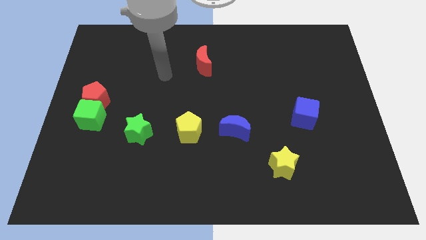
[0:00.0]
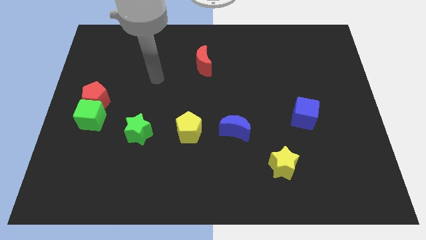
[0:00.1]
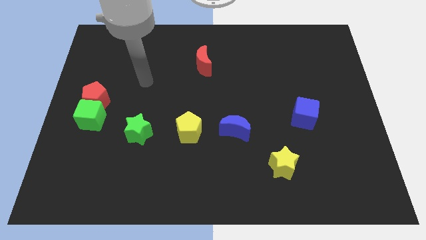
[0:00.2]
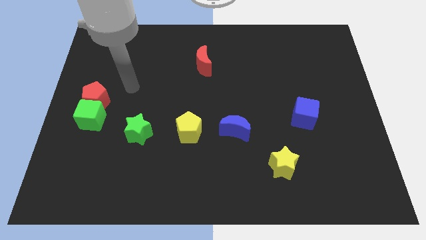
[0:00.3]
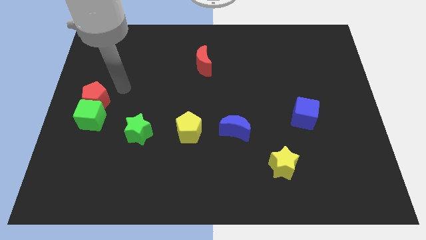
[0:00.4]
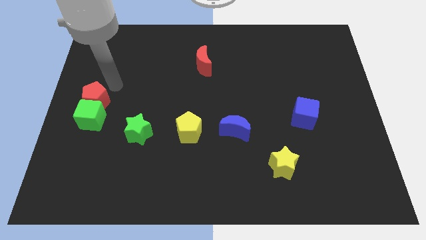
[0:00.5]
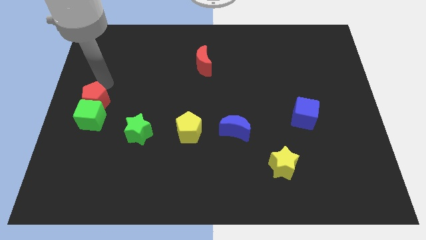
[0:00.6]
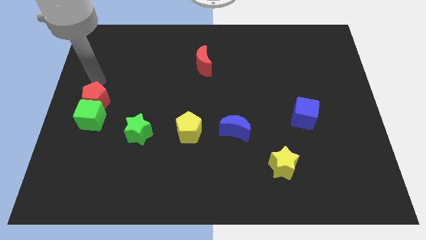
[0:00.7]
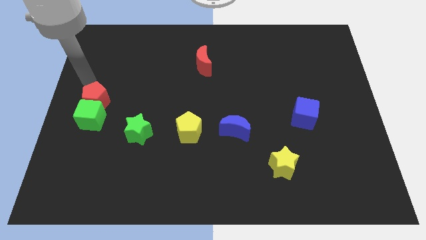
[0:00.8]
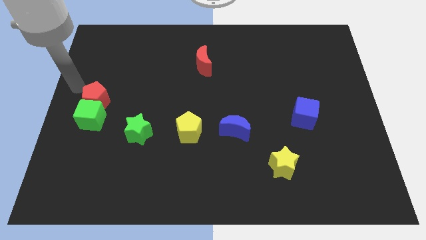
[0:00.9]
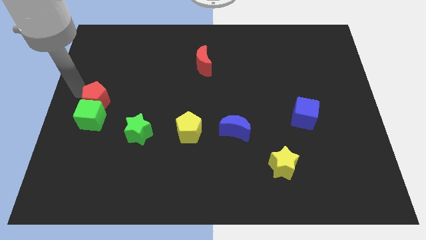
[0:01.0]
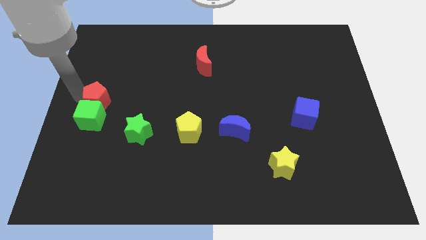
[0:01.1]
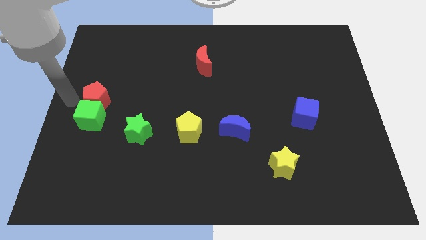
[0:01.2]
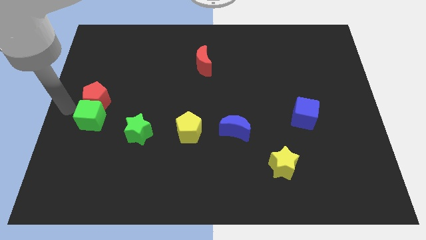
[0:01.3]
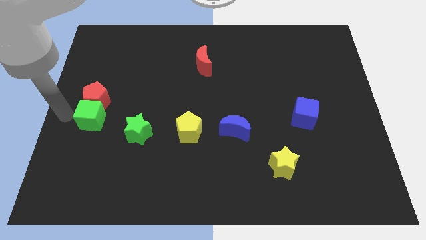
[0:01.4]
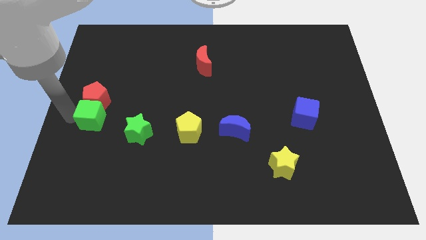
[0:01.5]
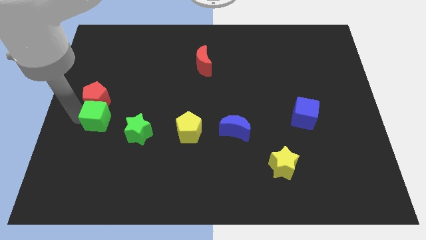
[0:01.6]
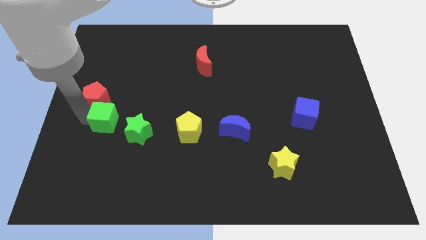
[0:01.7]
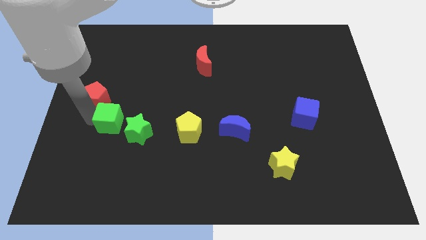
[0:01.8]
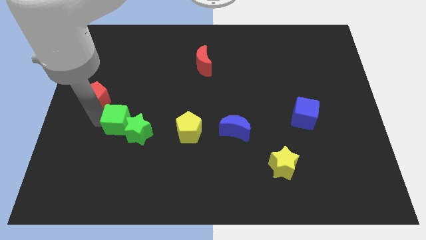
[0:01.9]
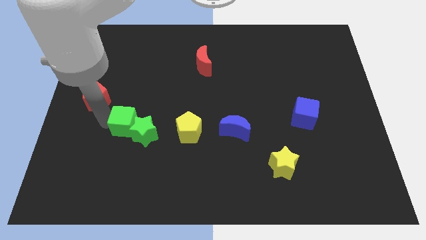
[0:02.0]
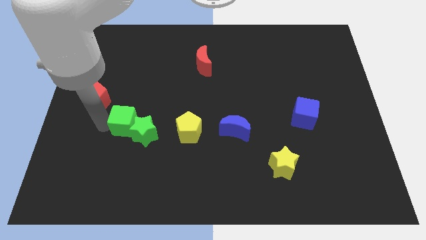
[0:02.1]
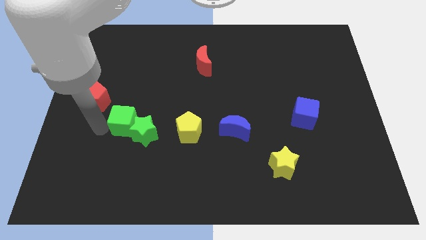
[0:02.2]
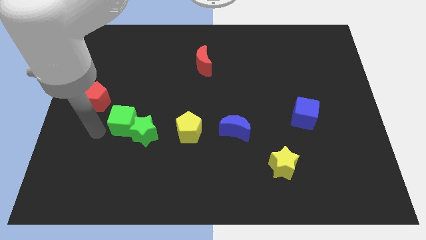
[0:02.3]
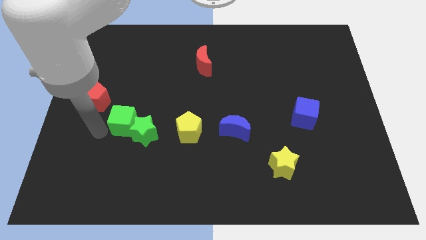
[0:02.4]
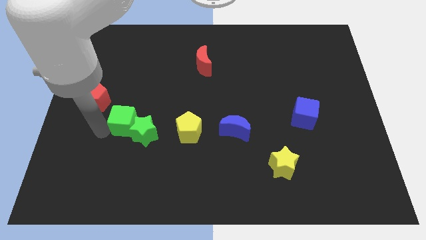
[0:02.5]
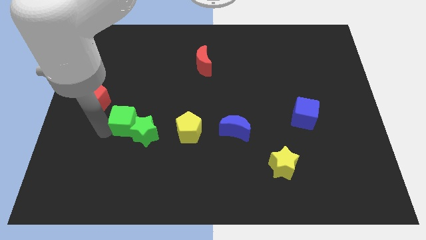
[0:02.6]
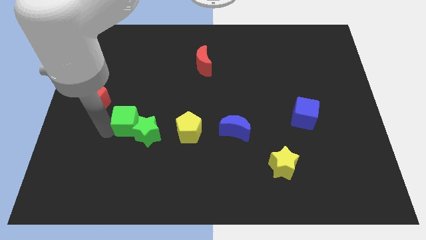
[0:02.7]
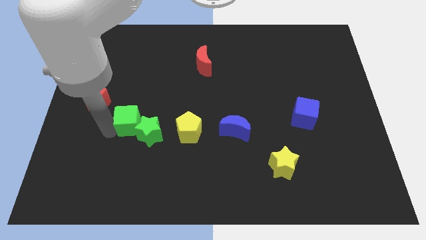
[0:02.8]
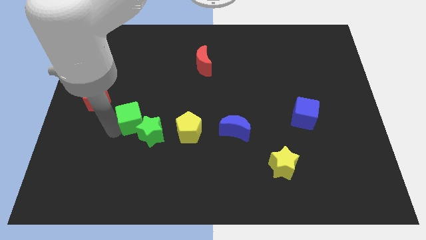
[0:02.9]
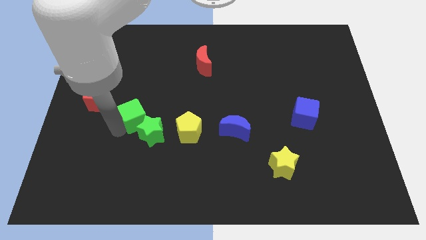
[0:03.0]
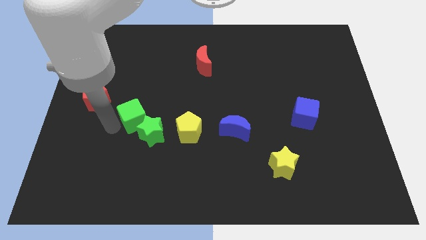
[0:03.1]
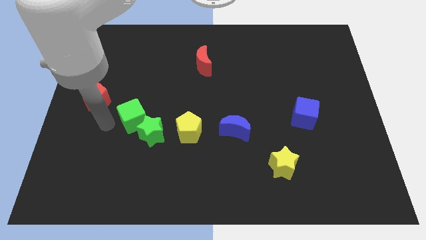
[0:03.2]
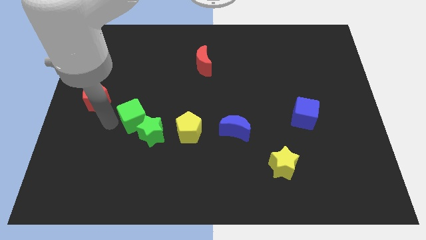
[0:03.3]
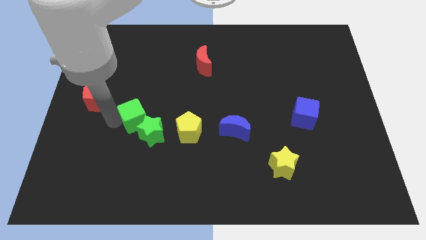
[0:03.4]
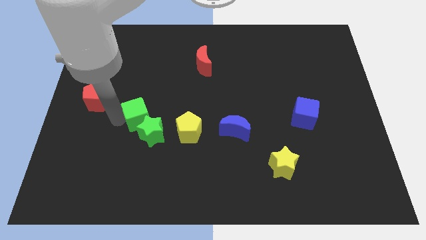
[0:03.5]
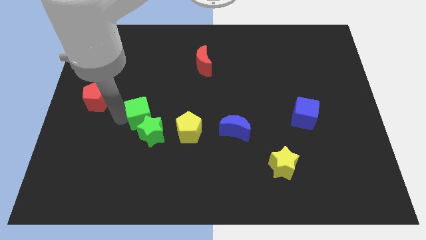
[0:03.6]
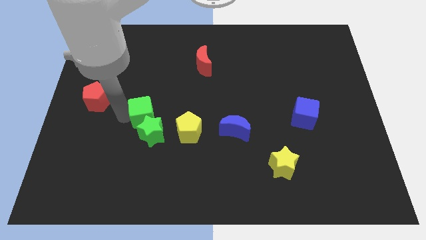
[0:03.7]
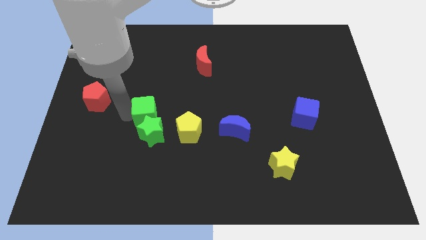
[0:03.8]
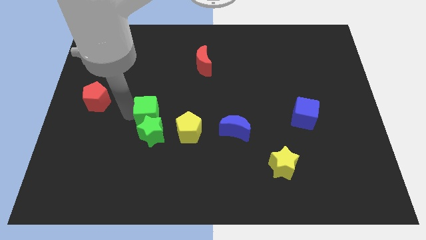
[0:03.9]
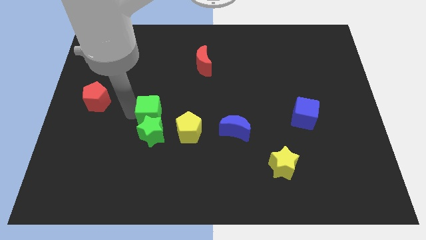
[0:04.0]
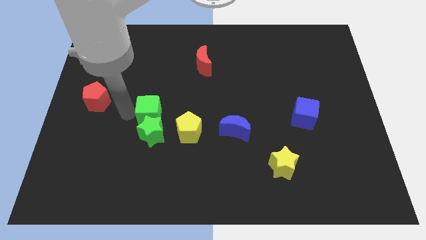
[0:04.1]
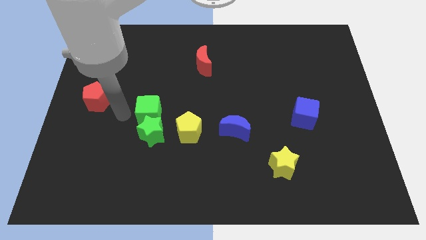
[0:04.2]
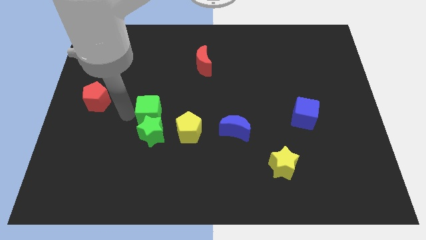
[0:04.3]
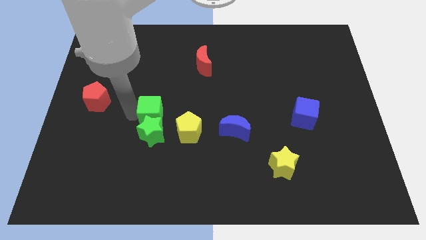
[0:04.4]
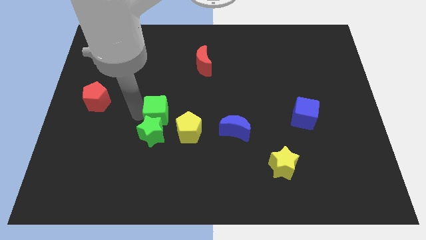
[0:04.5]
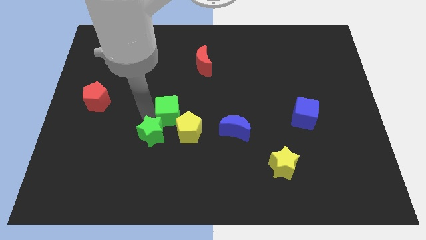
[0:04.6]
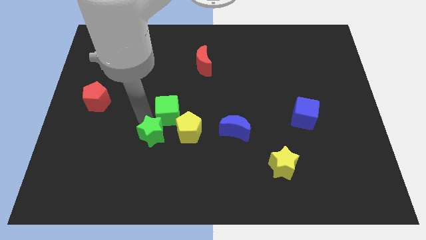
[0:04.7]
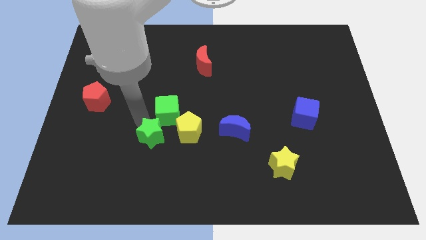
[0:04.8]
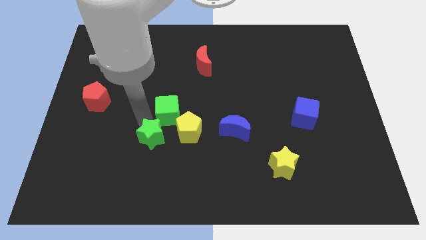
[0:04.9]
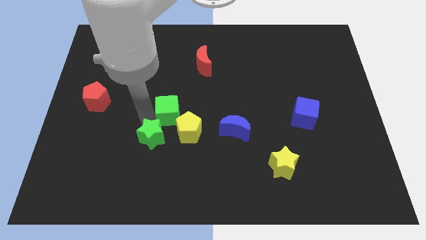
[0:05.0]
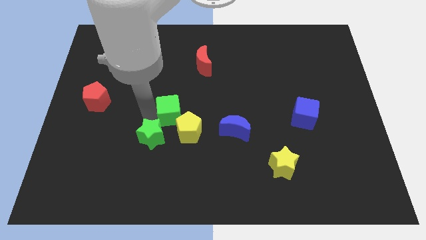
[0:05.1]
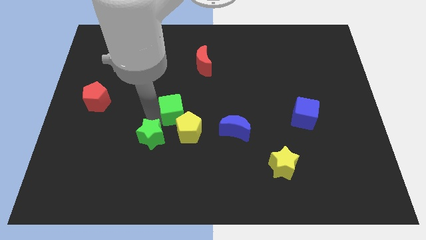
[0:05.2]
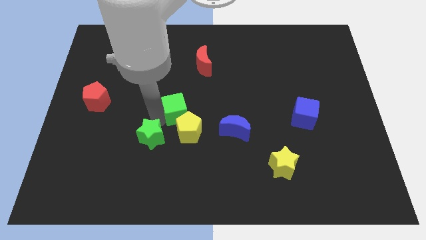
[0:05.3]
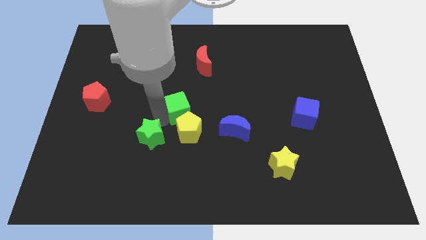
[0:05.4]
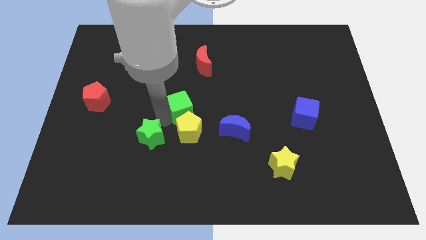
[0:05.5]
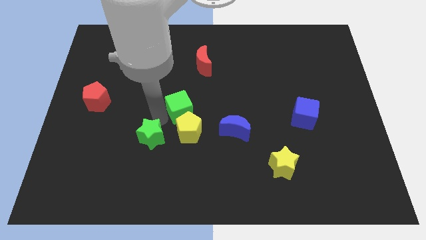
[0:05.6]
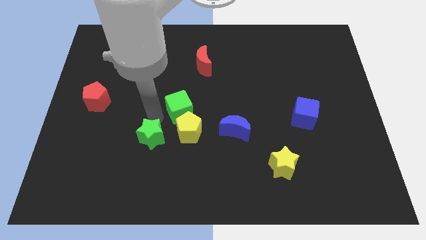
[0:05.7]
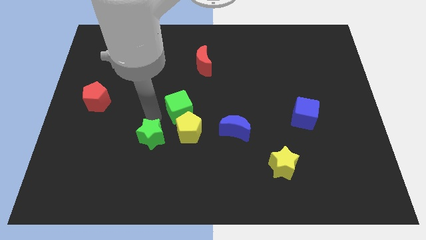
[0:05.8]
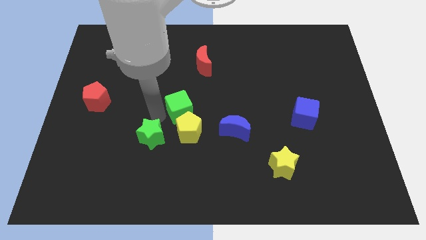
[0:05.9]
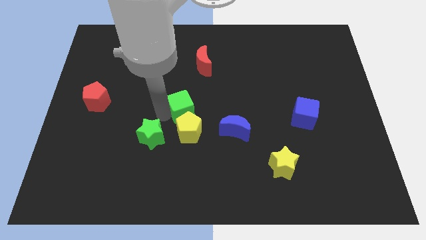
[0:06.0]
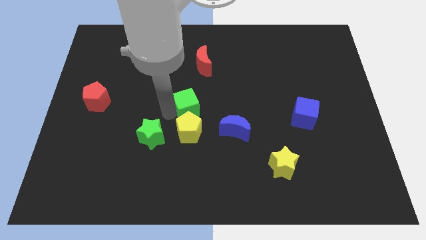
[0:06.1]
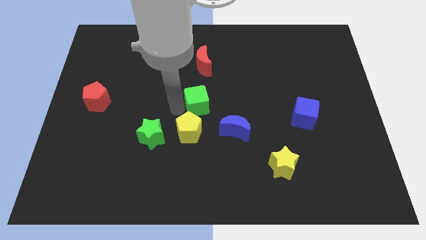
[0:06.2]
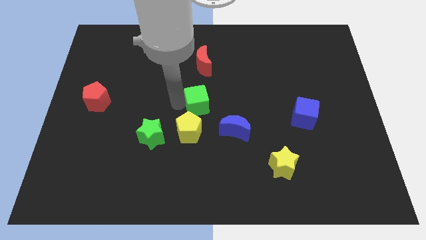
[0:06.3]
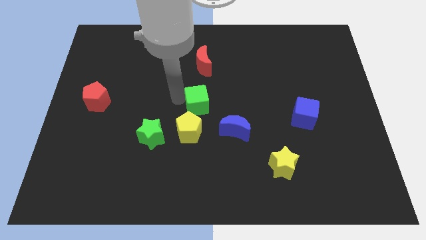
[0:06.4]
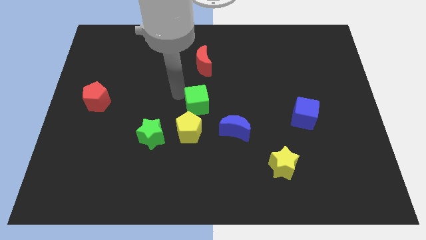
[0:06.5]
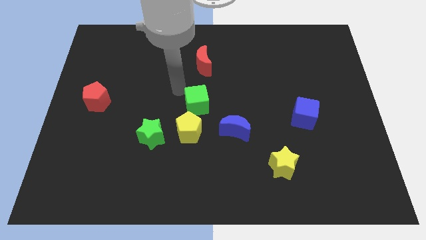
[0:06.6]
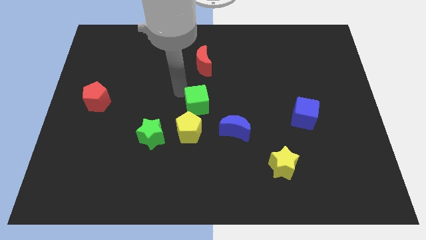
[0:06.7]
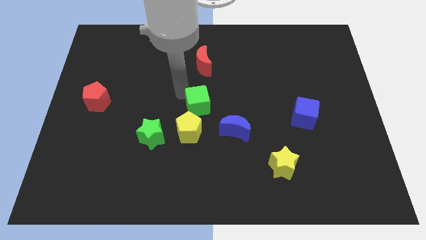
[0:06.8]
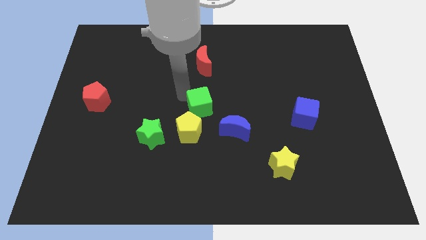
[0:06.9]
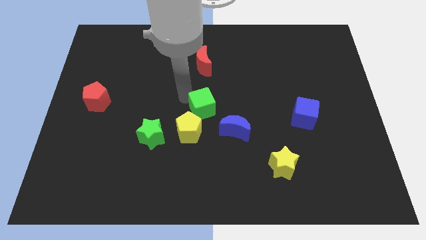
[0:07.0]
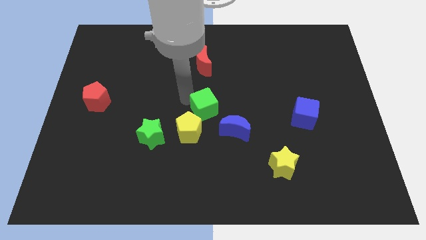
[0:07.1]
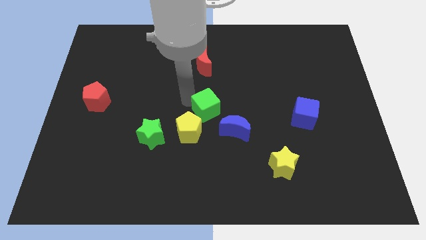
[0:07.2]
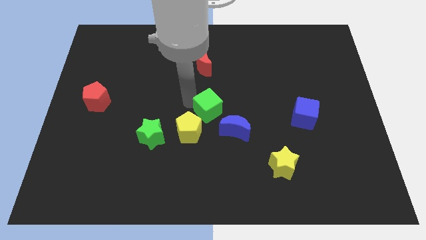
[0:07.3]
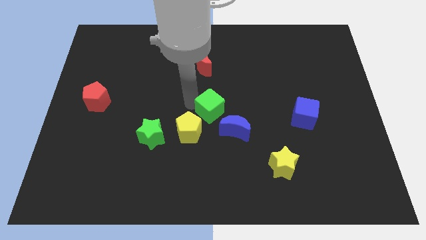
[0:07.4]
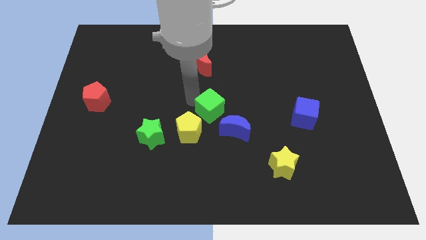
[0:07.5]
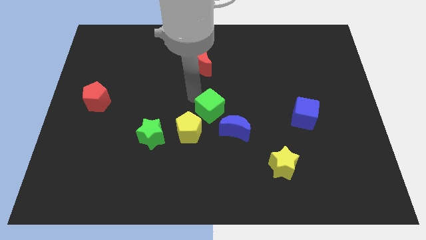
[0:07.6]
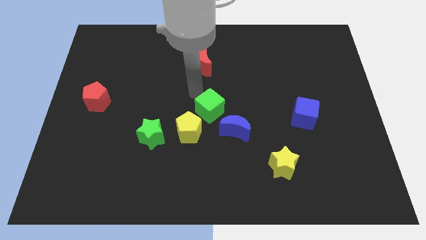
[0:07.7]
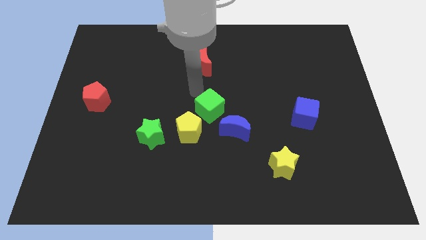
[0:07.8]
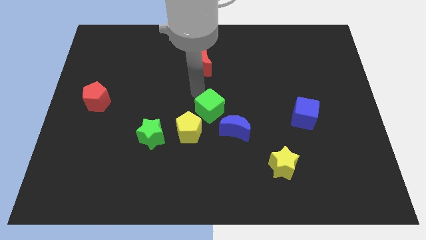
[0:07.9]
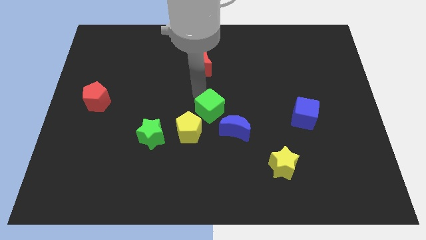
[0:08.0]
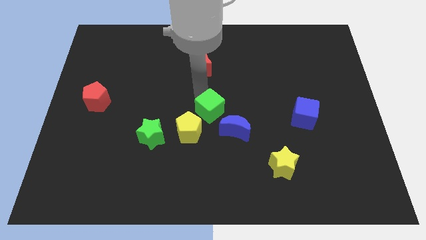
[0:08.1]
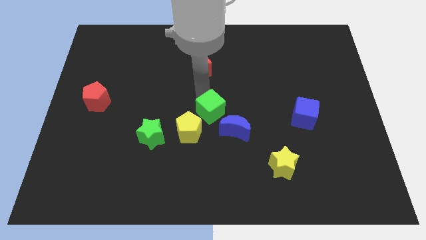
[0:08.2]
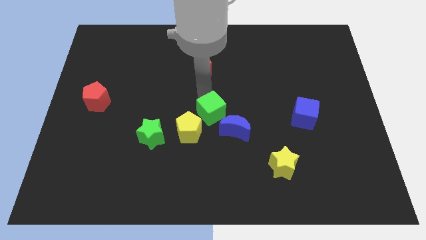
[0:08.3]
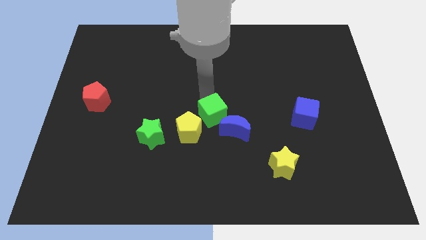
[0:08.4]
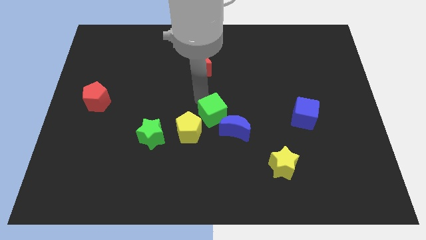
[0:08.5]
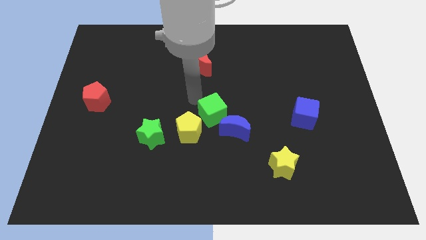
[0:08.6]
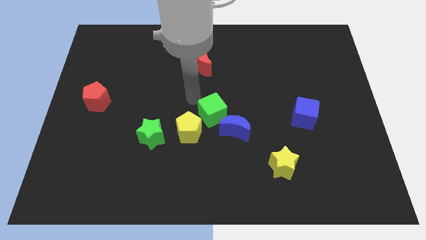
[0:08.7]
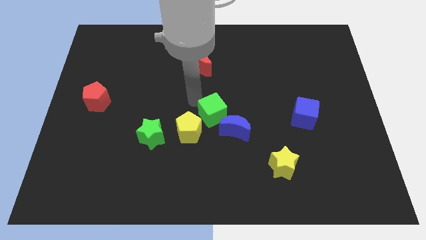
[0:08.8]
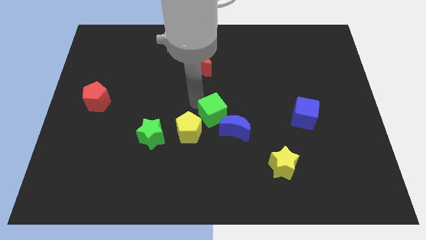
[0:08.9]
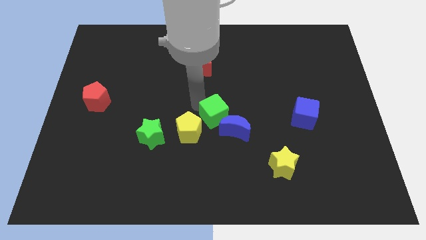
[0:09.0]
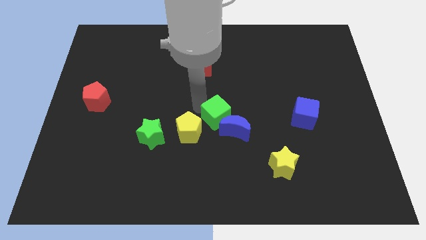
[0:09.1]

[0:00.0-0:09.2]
put the green cube towards the blue moon
